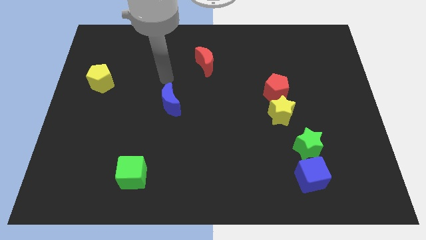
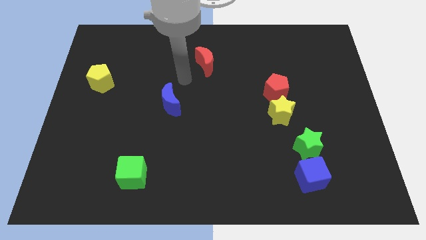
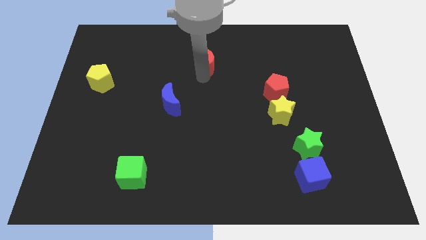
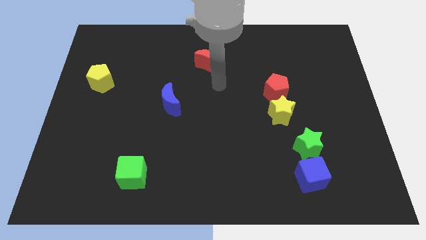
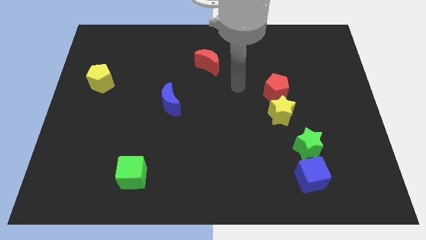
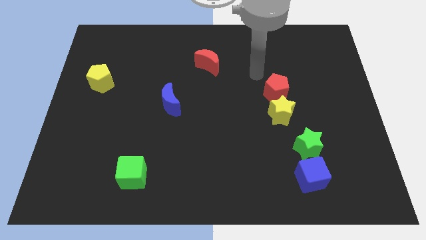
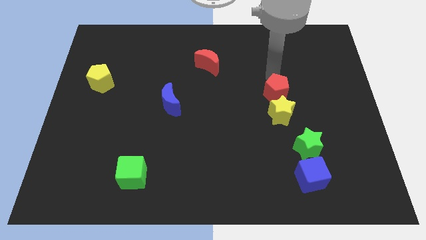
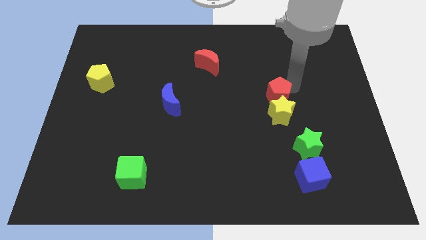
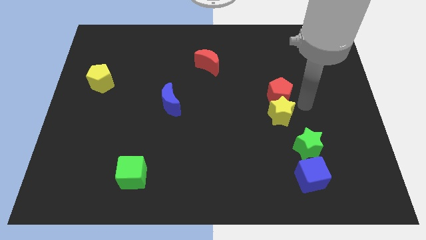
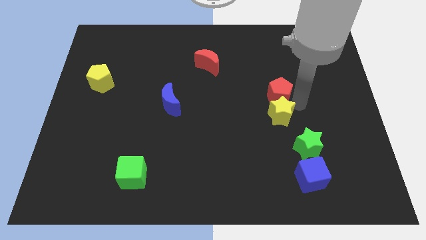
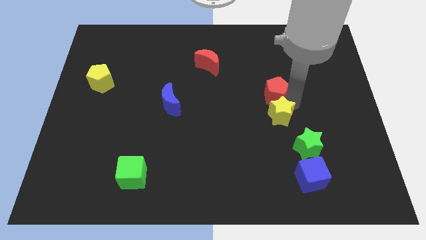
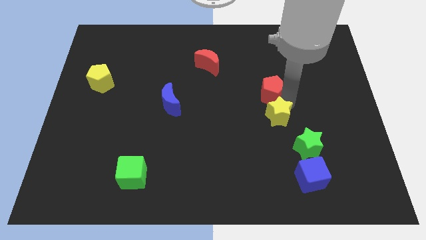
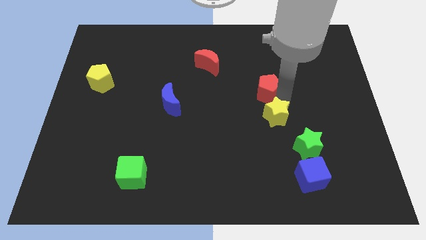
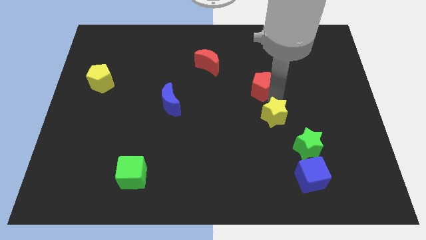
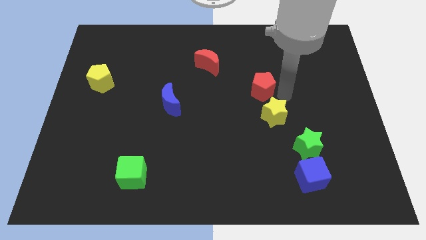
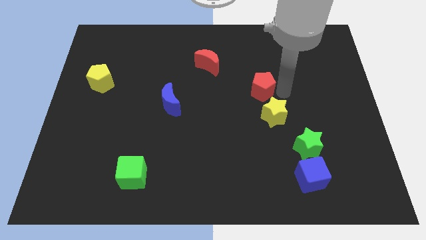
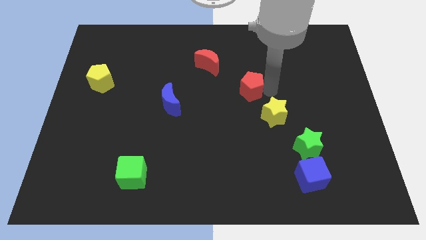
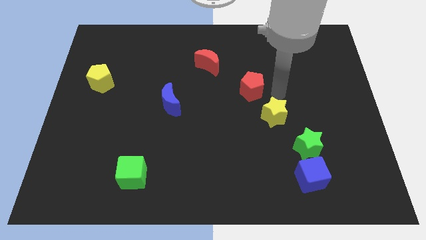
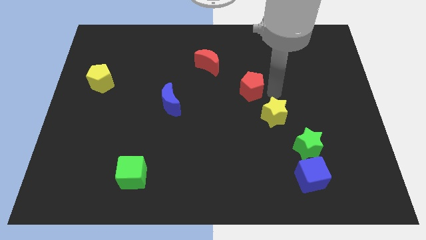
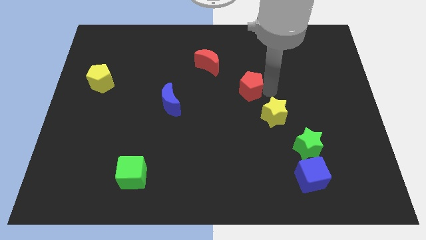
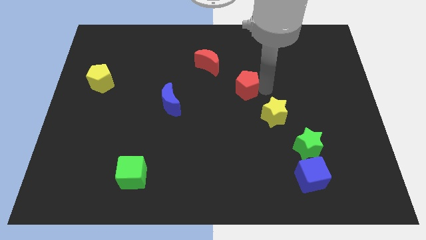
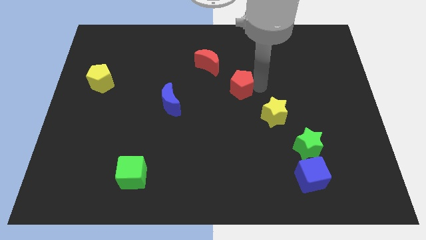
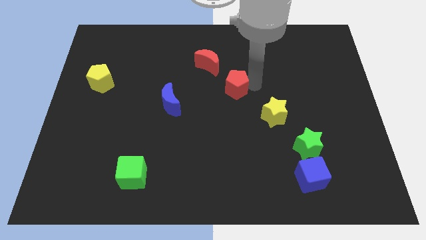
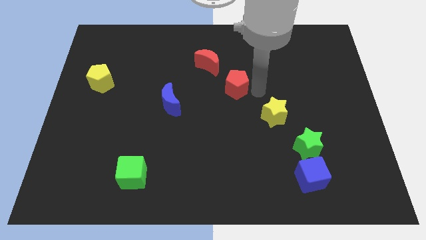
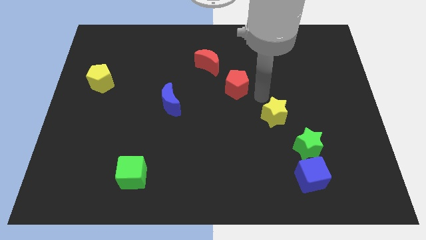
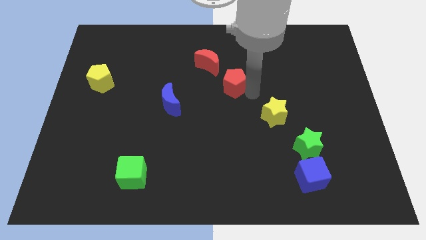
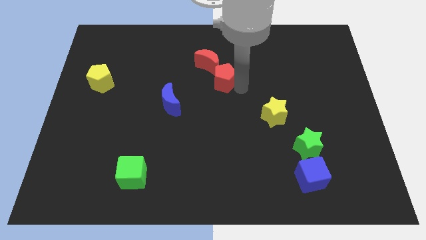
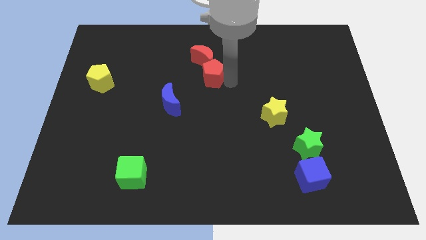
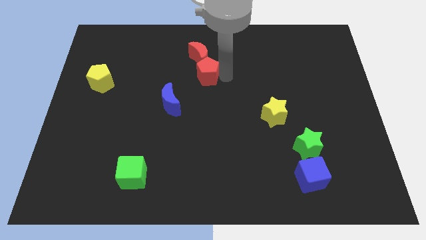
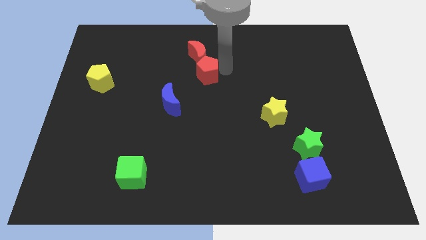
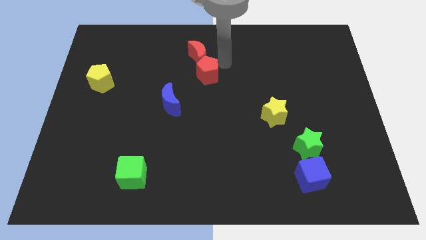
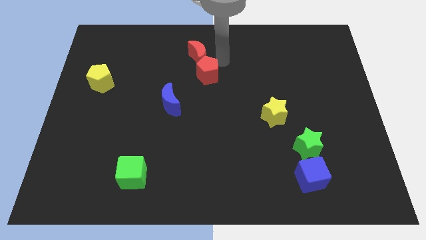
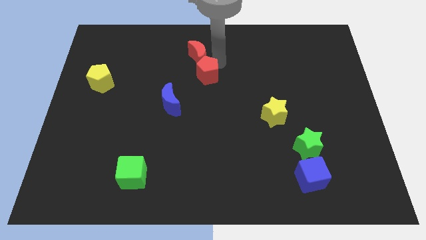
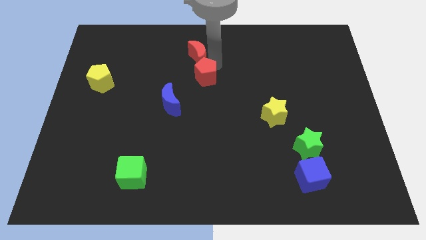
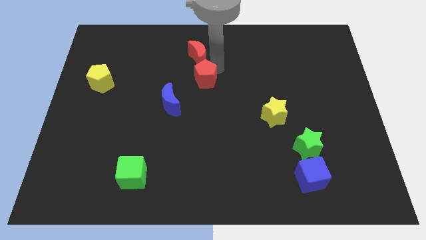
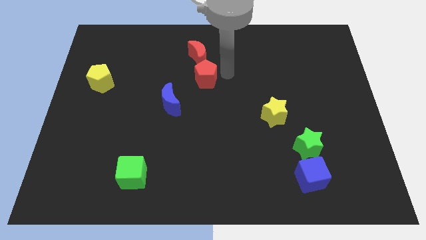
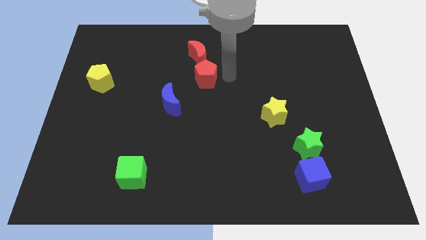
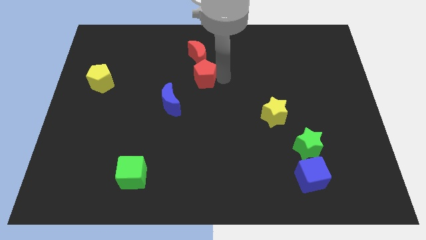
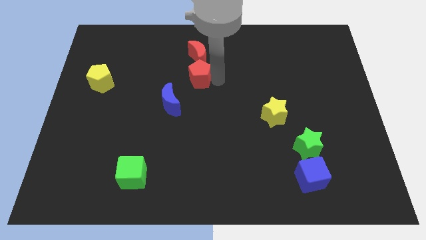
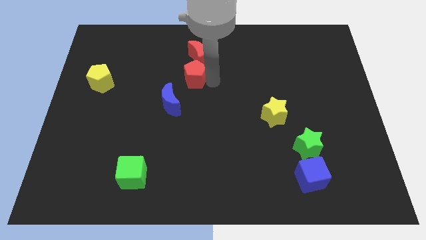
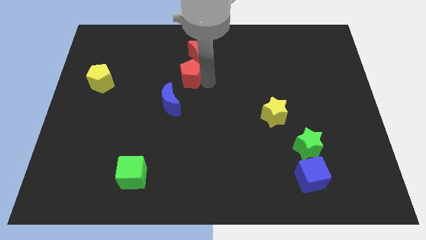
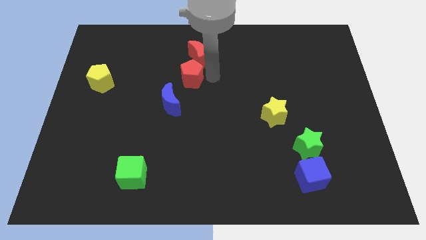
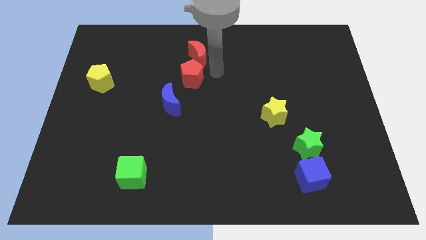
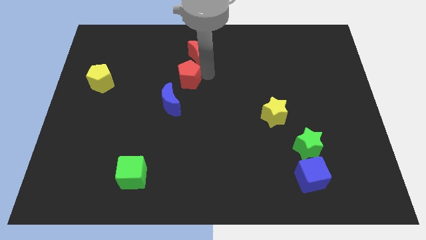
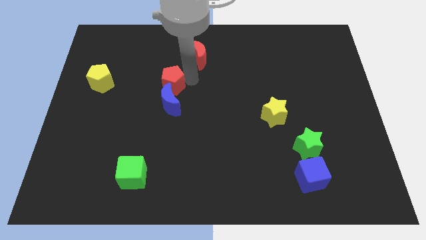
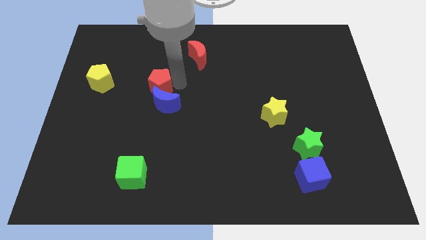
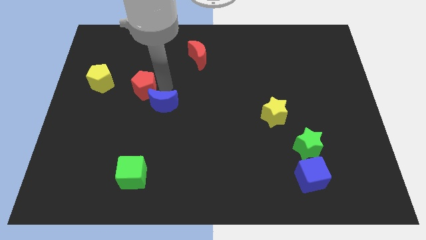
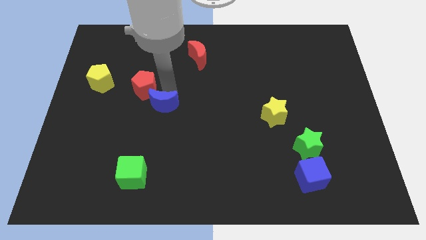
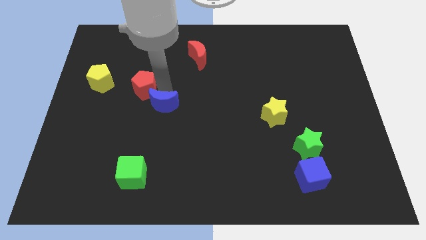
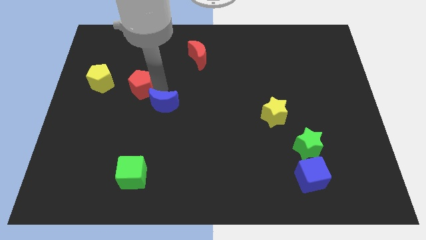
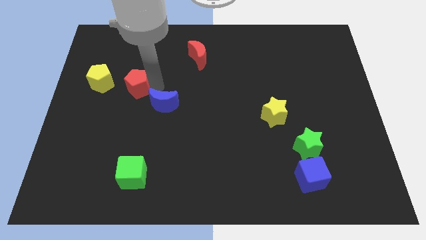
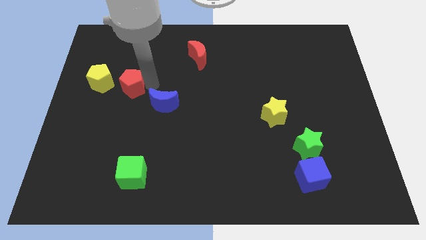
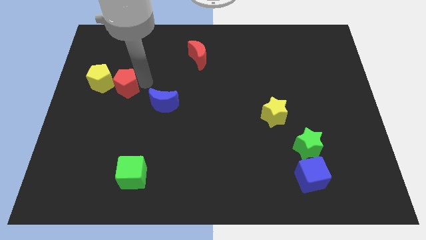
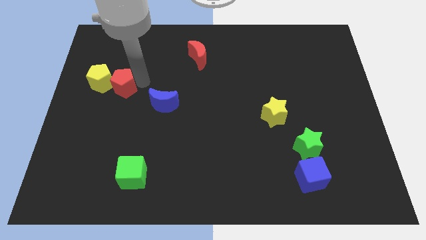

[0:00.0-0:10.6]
push the red pentagon close to the yellow pentagon

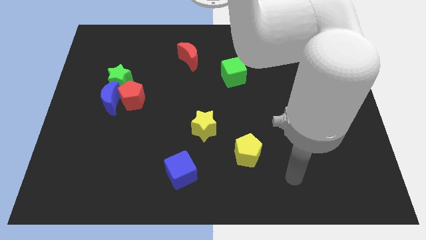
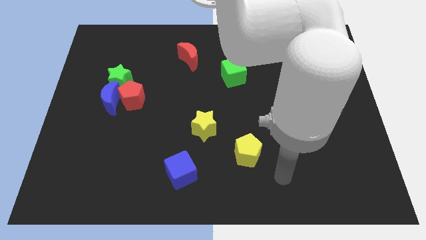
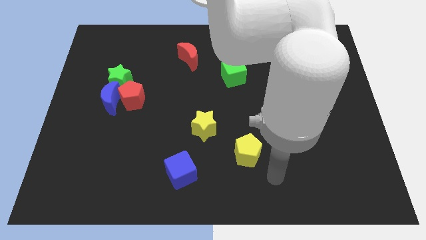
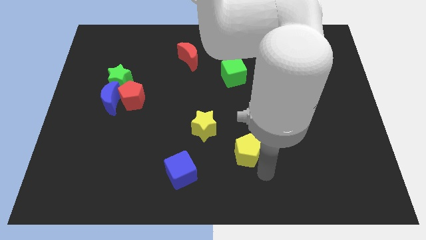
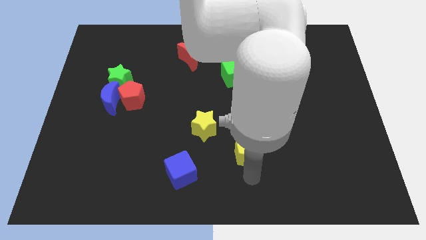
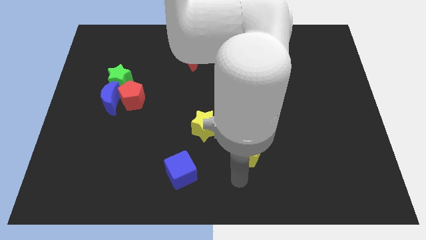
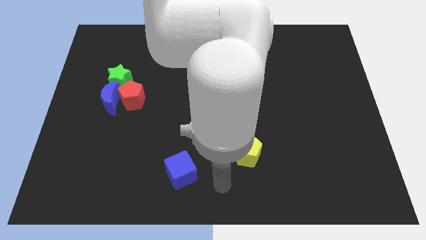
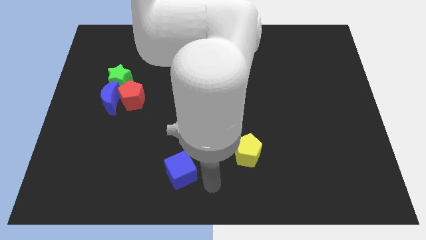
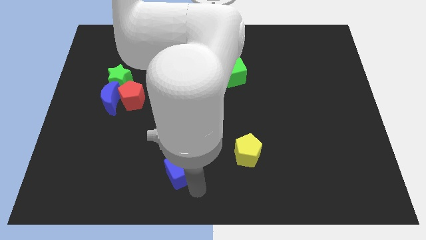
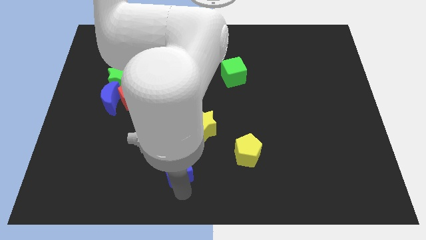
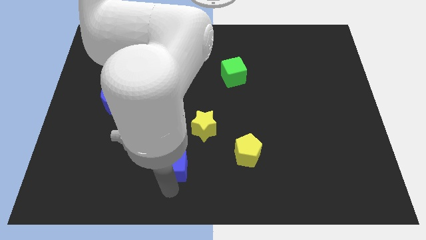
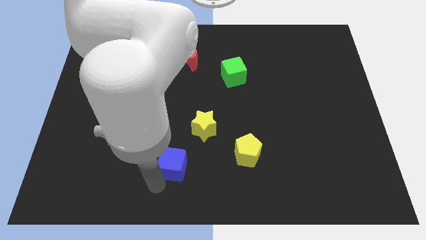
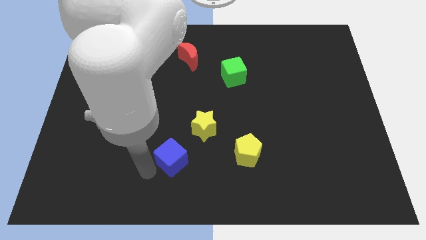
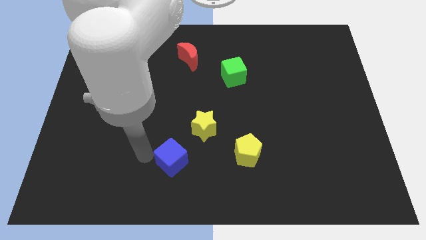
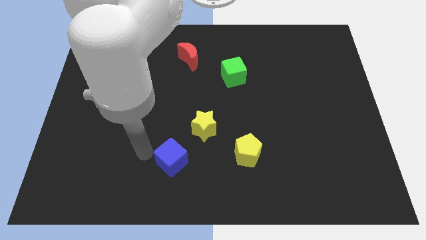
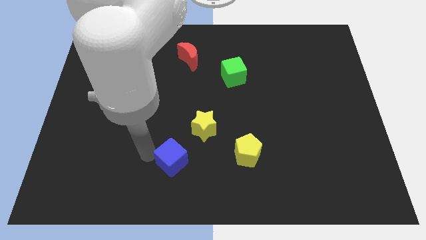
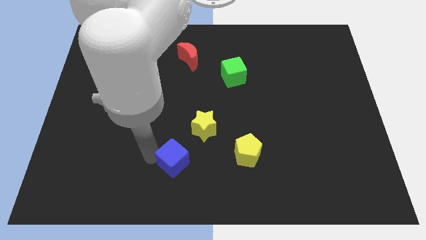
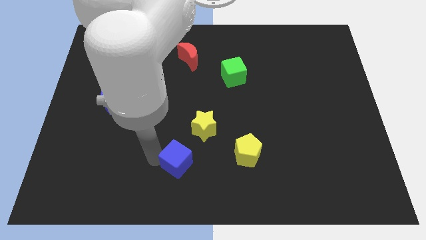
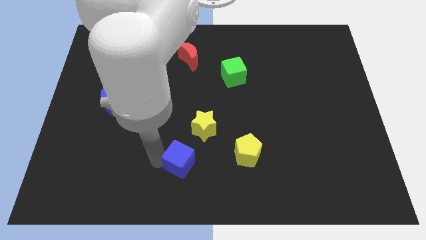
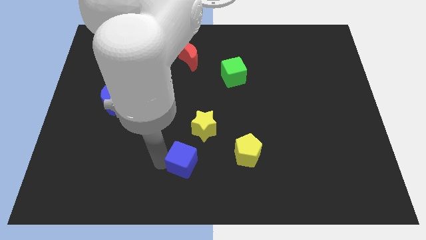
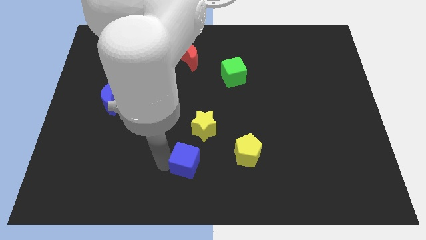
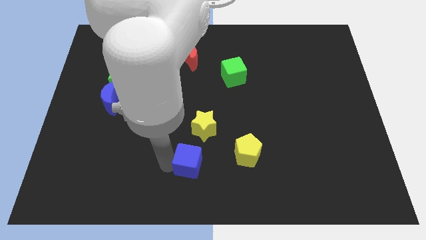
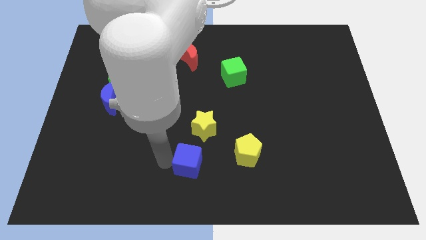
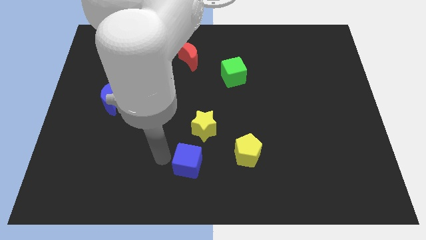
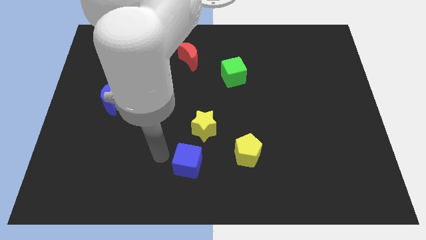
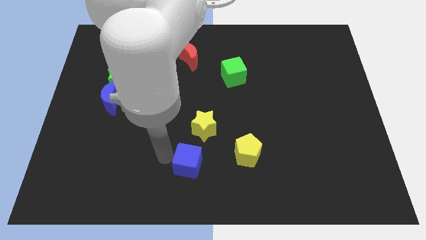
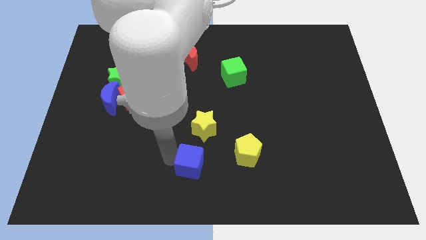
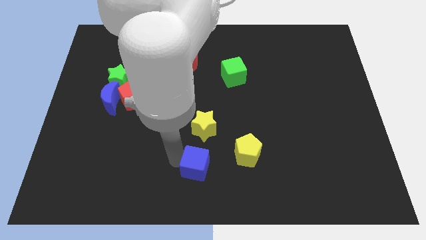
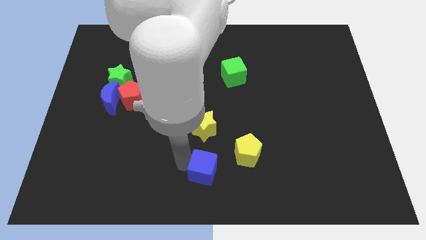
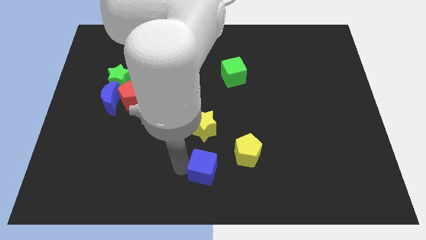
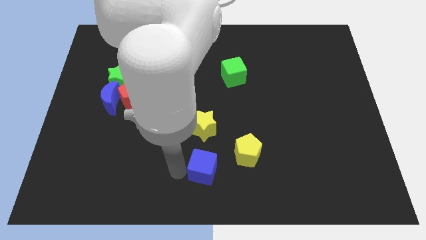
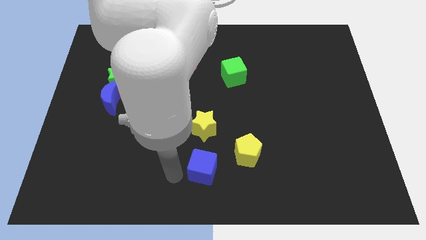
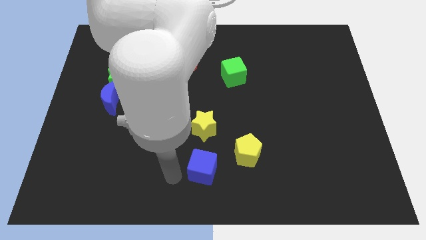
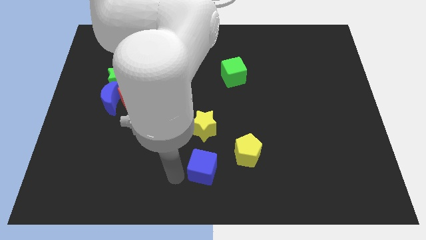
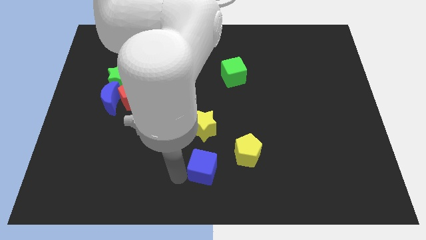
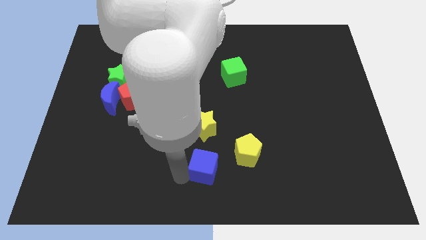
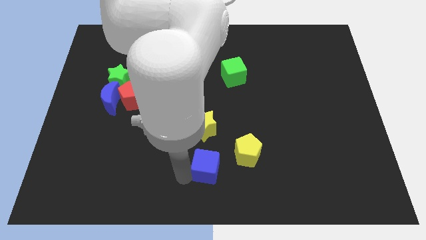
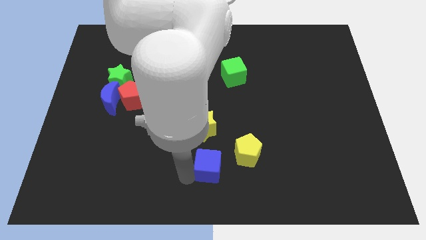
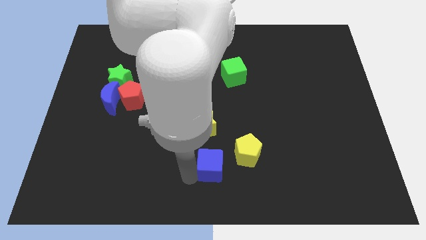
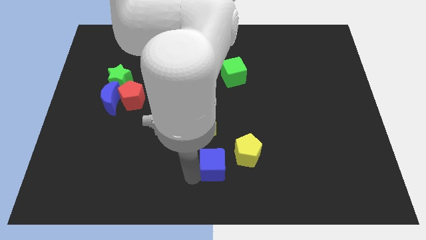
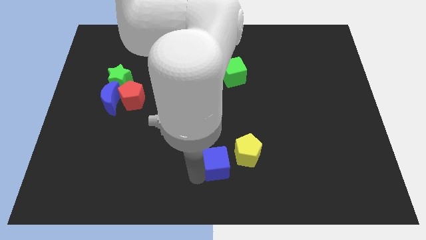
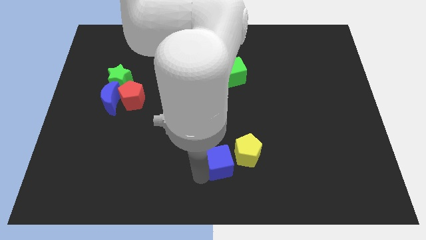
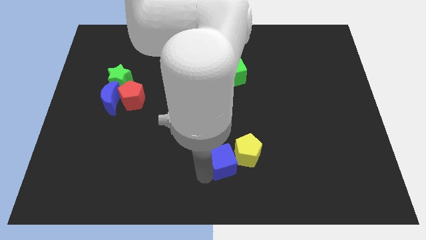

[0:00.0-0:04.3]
move the blue cube next to the yellow pentagon
